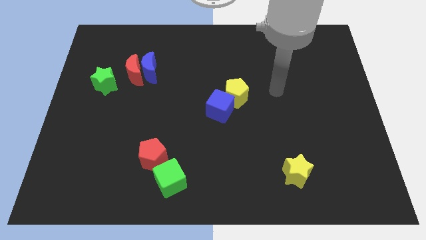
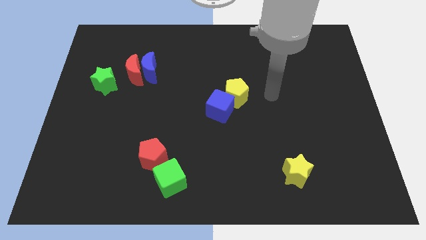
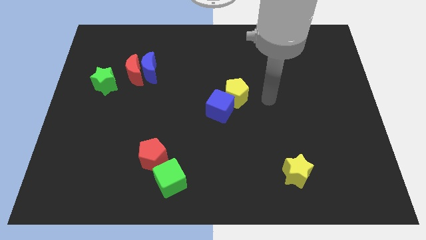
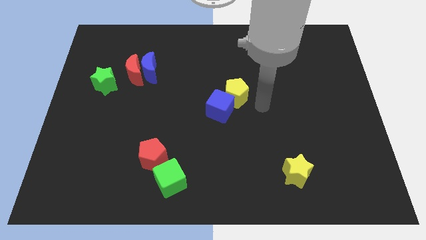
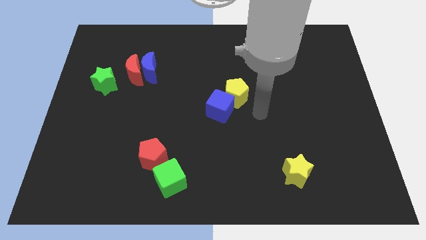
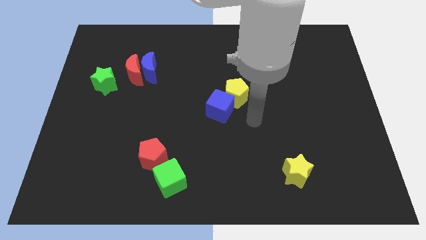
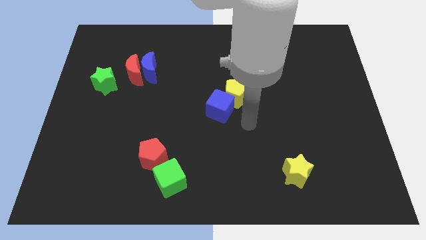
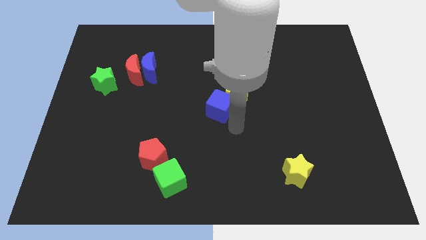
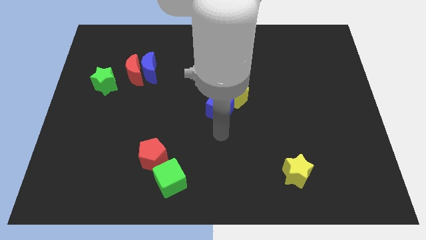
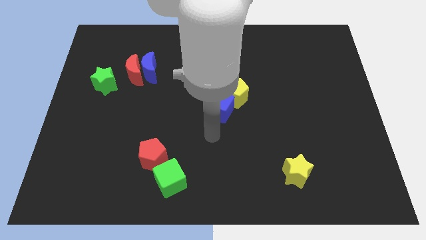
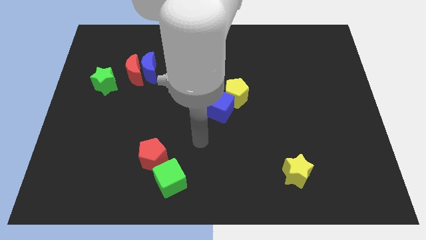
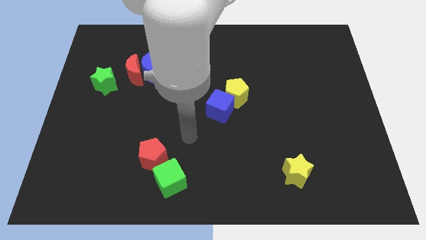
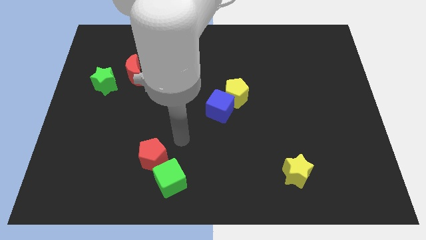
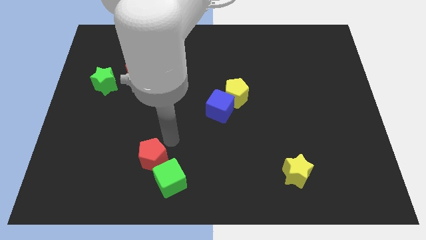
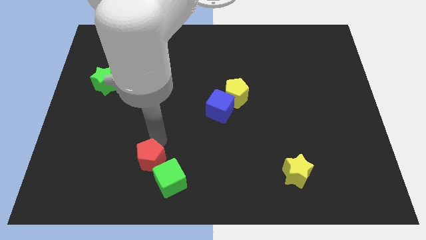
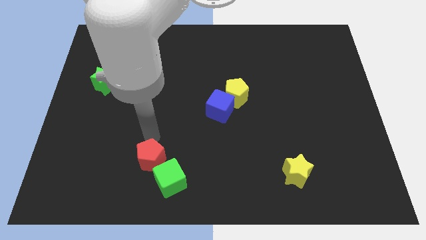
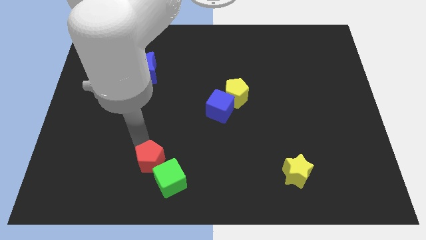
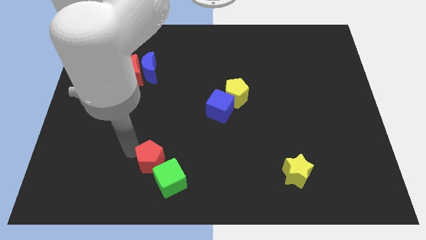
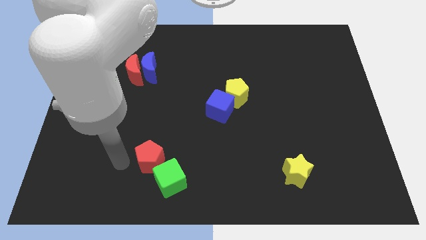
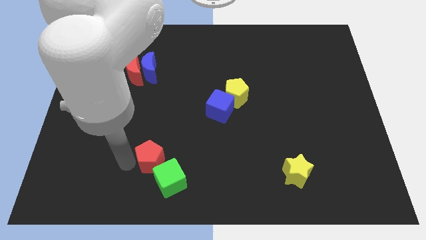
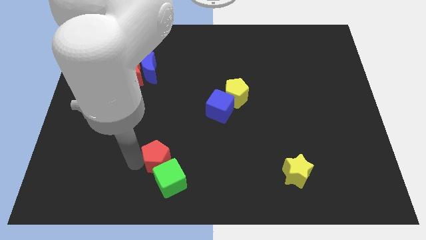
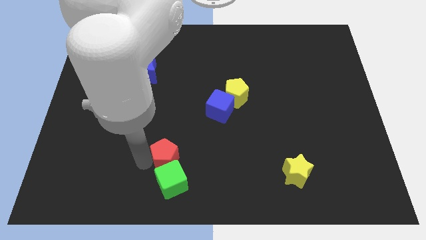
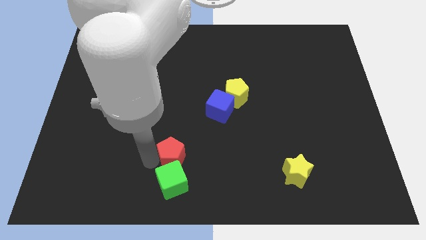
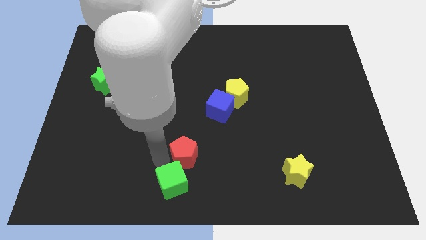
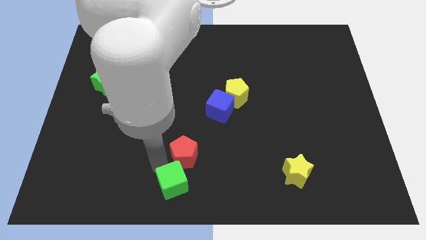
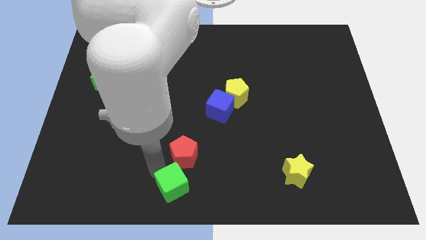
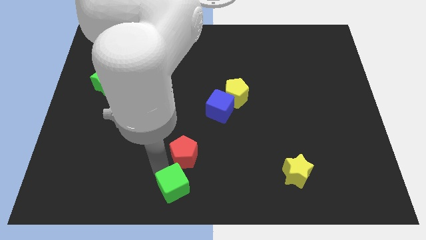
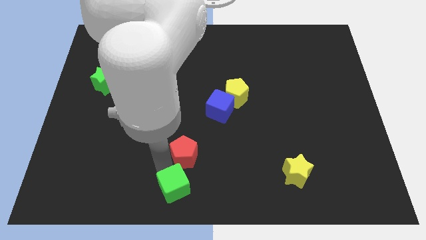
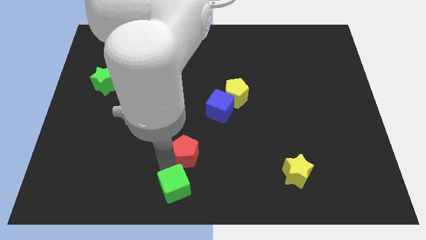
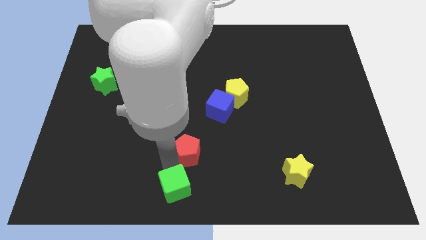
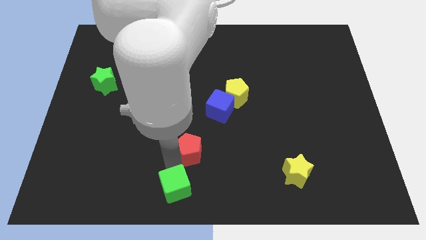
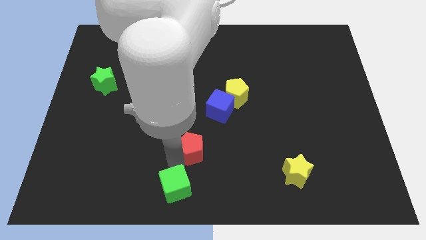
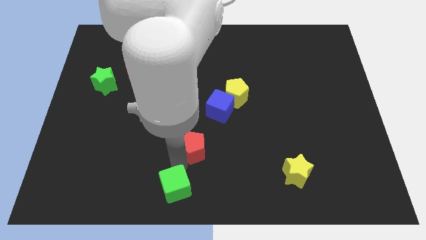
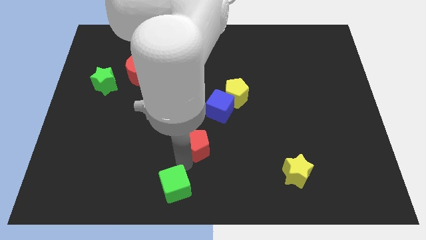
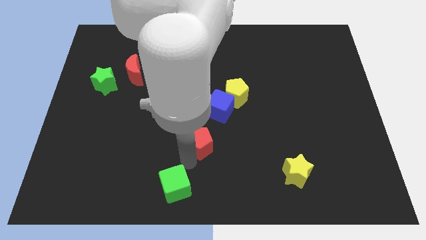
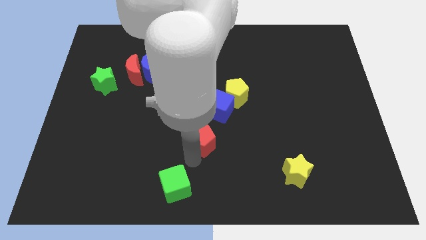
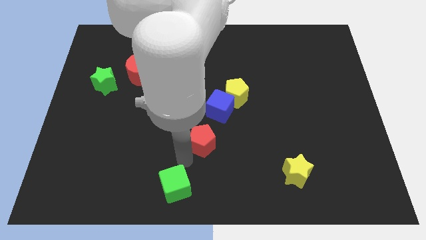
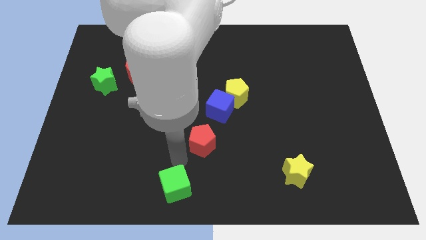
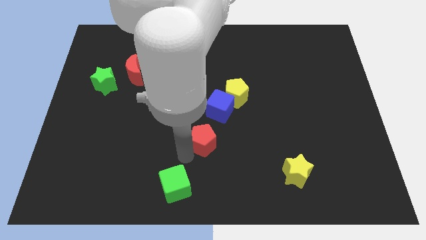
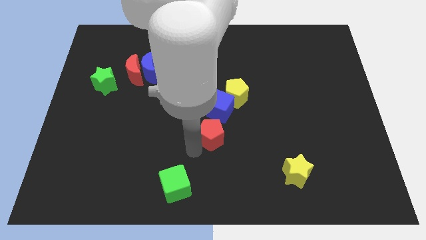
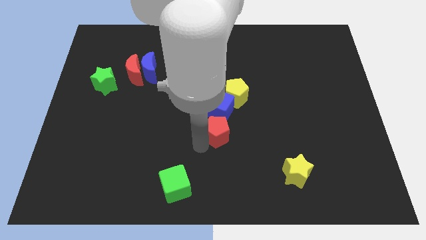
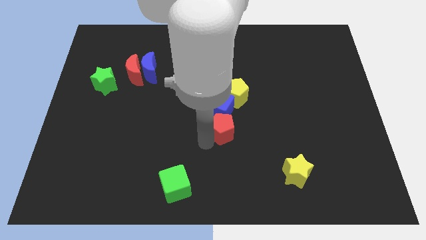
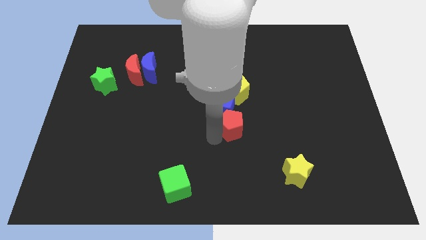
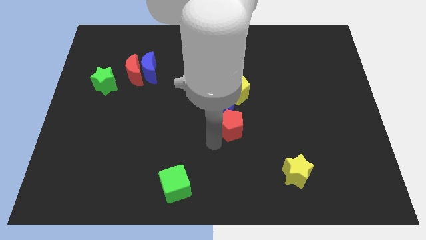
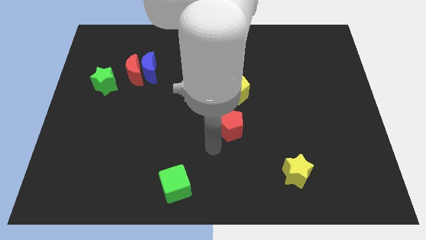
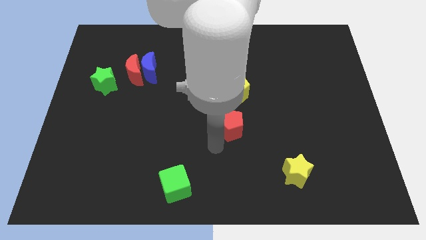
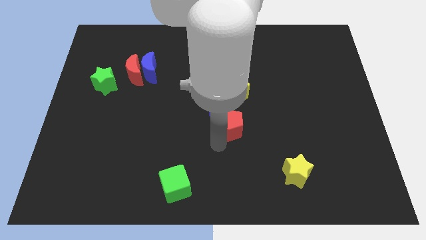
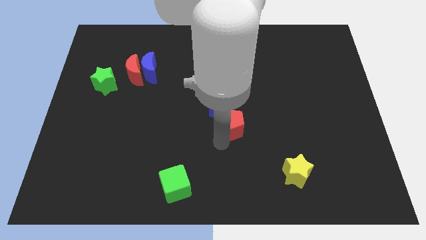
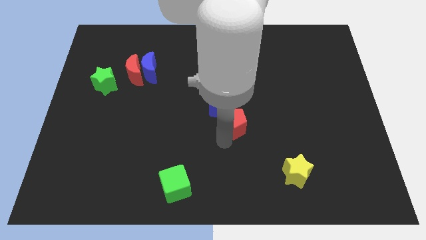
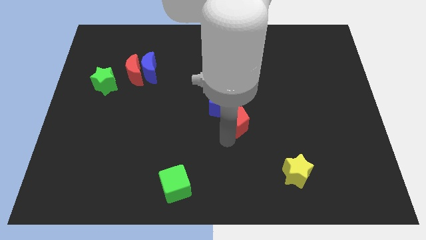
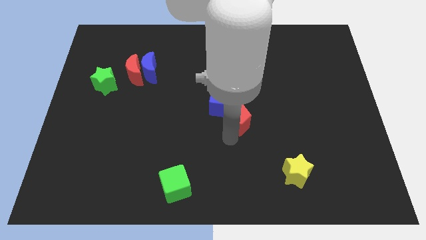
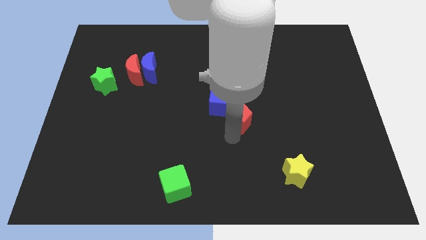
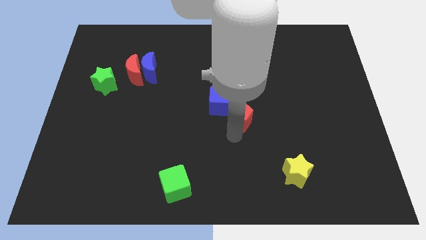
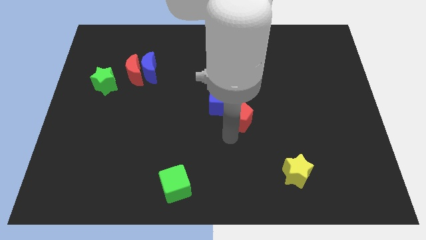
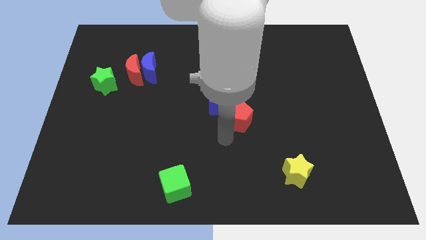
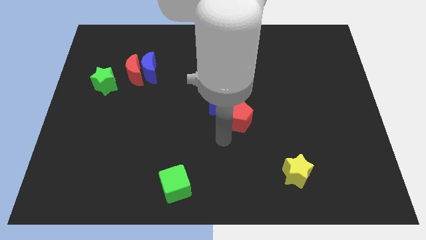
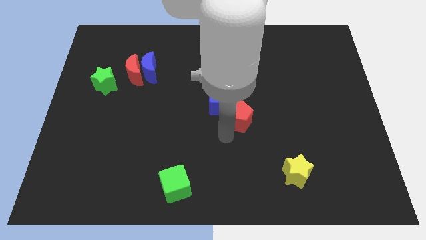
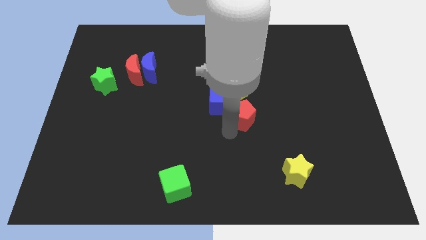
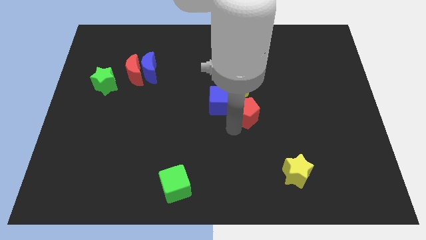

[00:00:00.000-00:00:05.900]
move the red pentagon up and then to the right

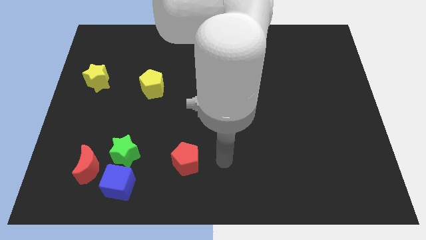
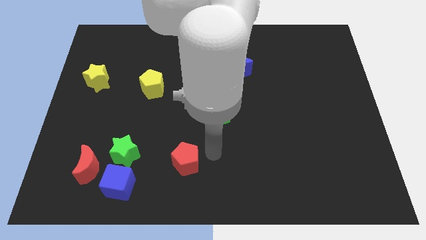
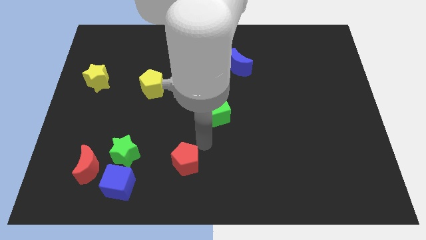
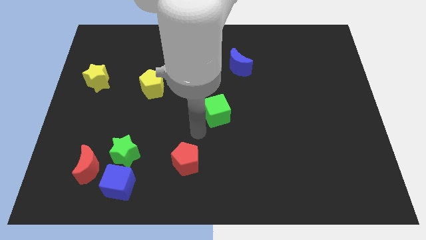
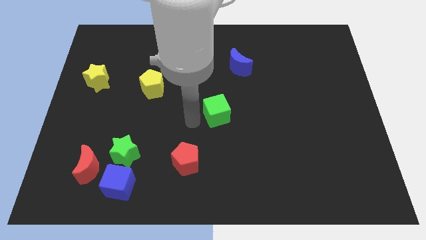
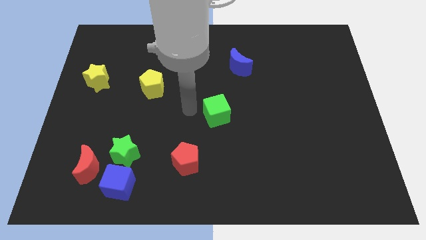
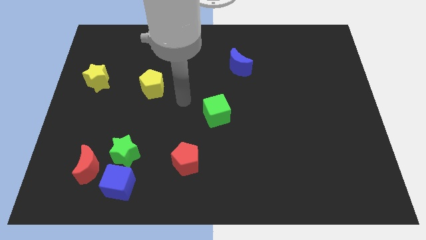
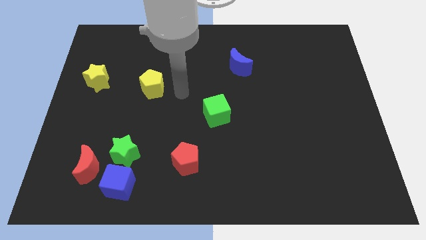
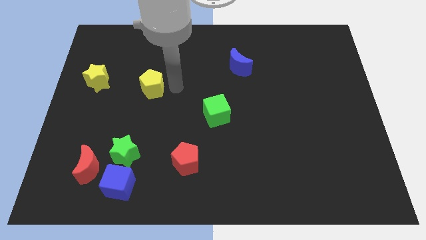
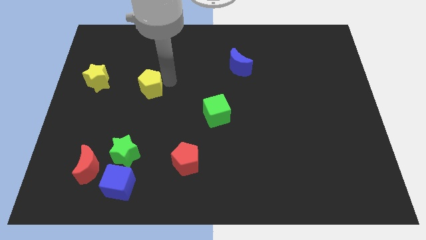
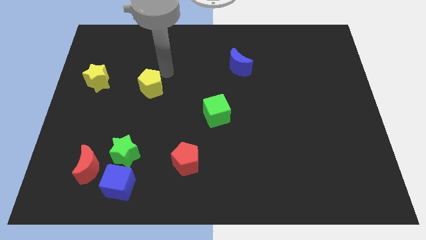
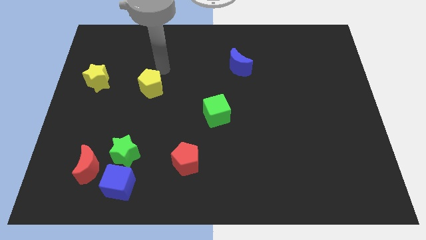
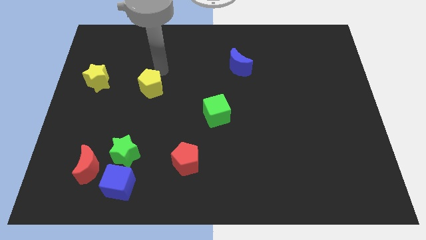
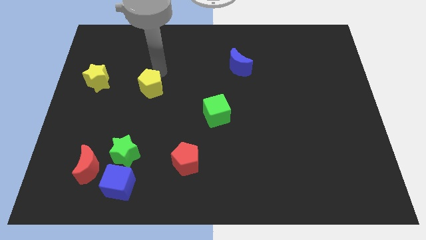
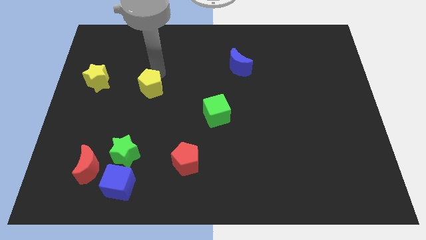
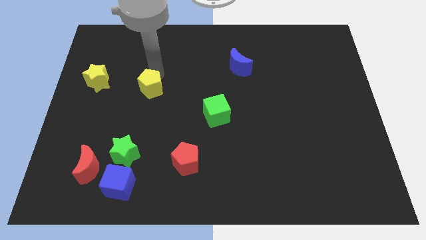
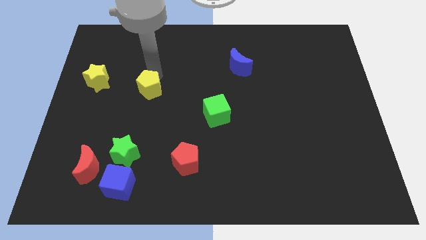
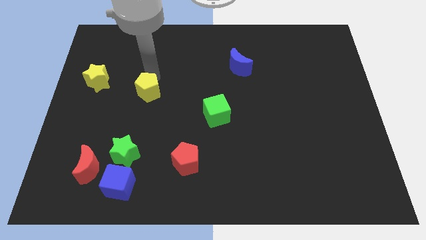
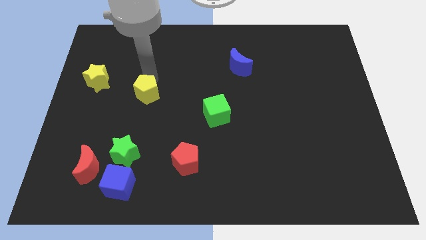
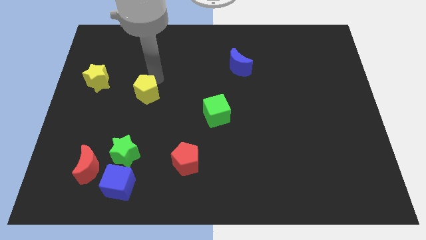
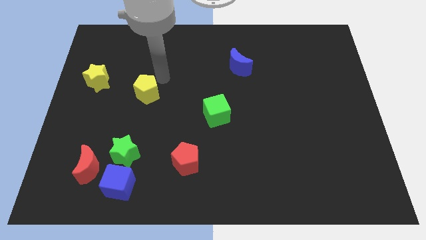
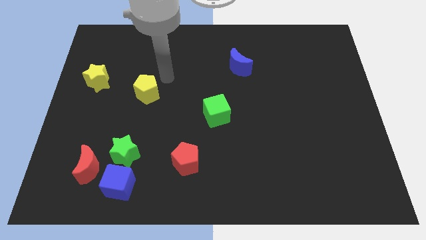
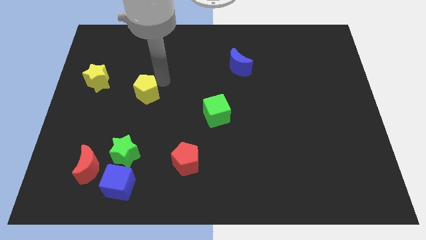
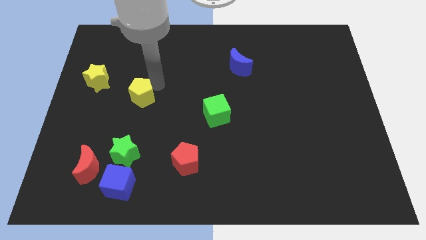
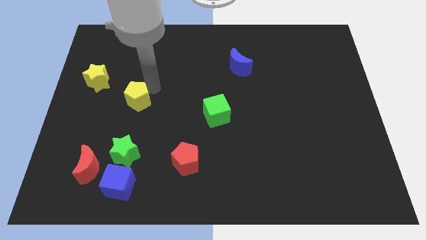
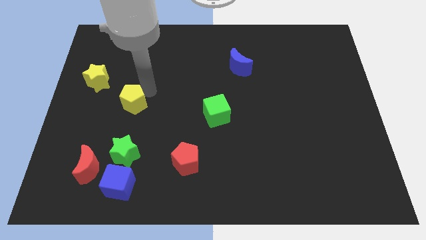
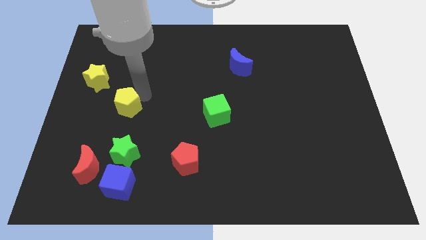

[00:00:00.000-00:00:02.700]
push the yellow pentagon diagonally downwards and left slightly
